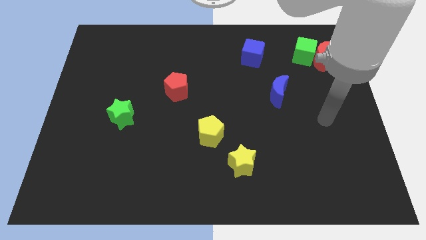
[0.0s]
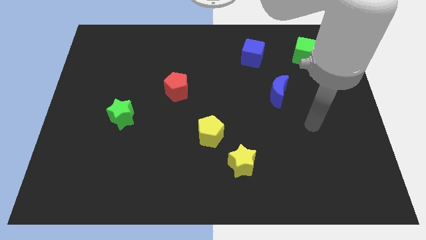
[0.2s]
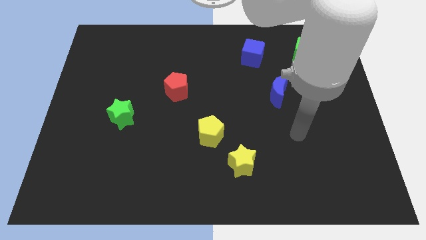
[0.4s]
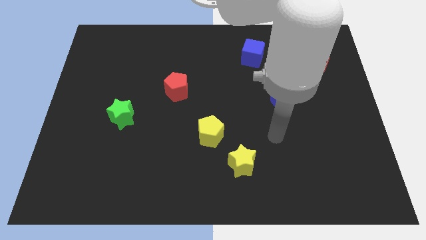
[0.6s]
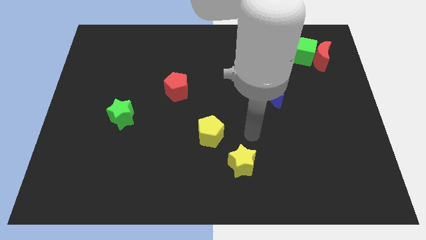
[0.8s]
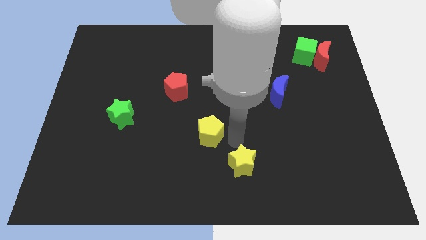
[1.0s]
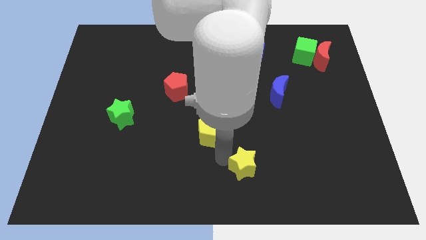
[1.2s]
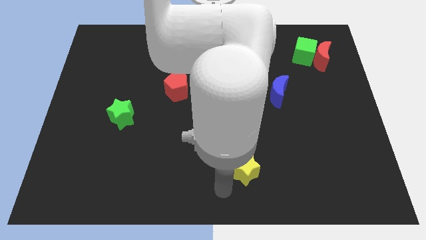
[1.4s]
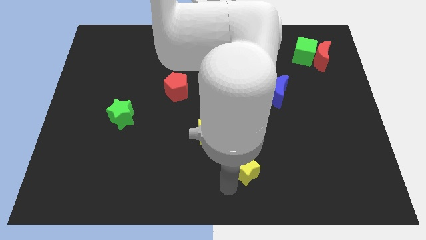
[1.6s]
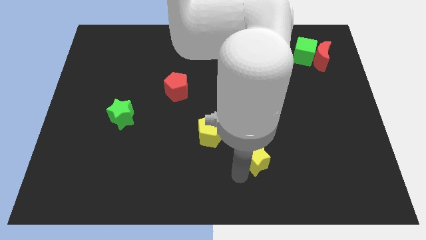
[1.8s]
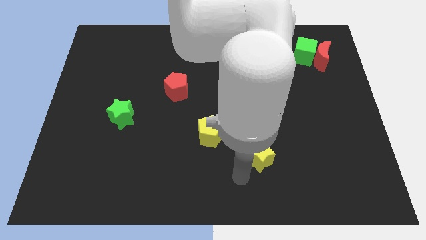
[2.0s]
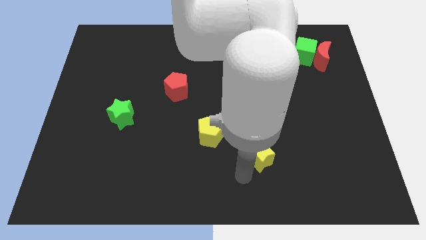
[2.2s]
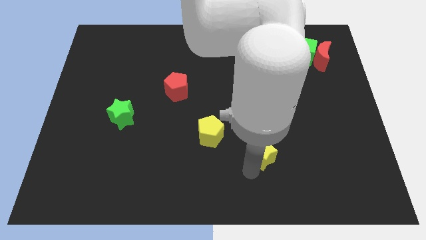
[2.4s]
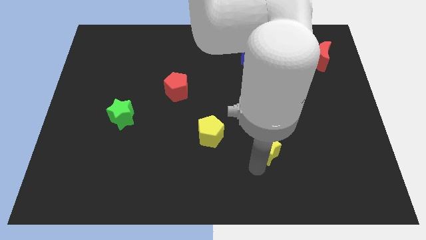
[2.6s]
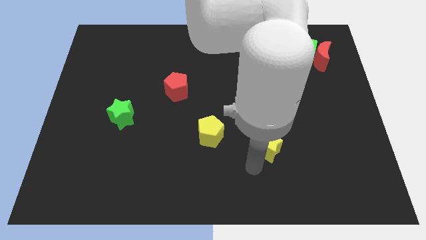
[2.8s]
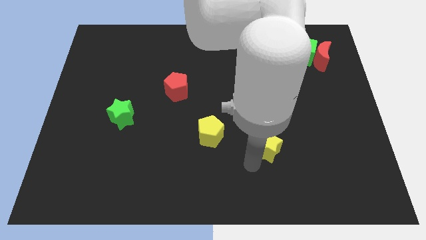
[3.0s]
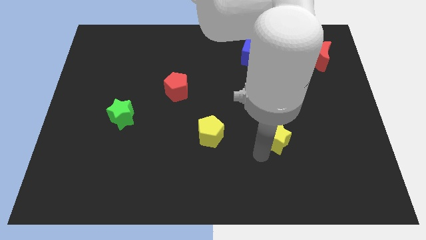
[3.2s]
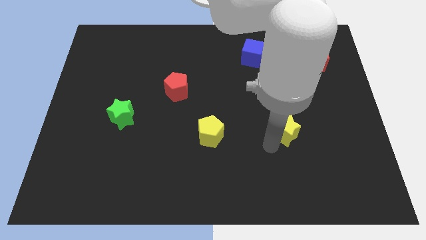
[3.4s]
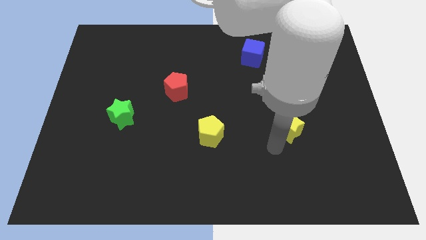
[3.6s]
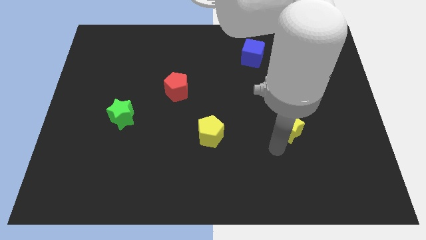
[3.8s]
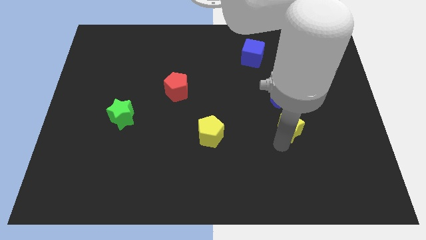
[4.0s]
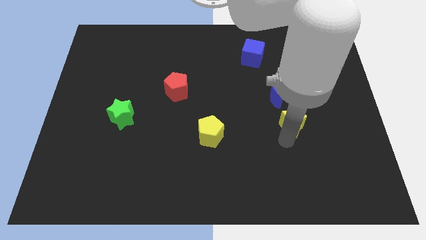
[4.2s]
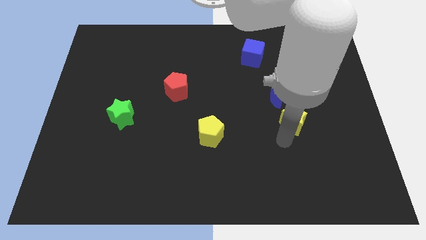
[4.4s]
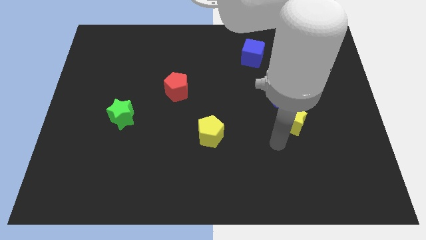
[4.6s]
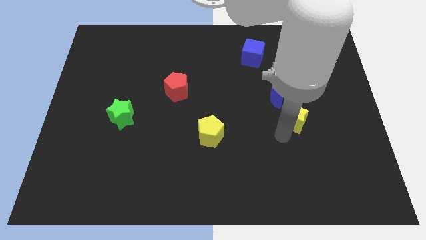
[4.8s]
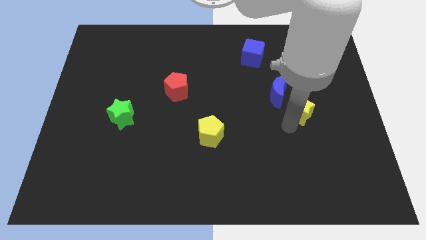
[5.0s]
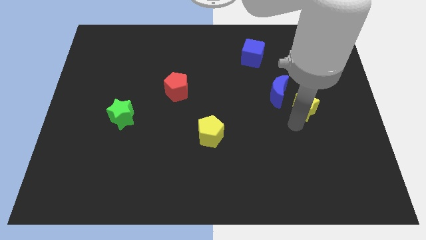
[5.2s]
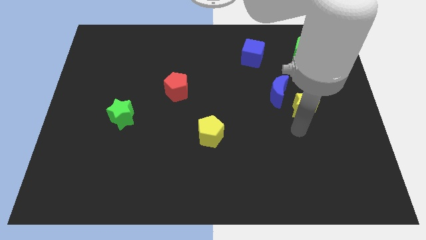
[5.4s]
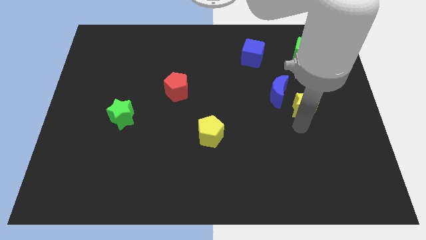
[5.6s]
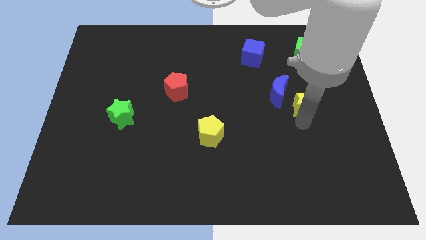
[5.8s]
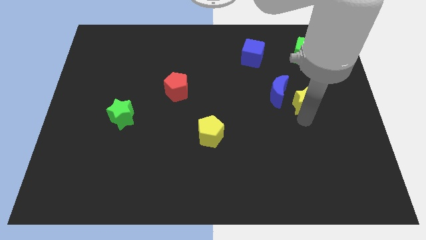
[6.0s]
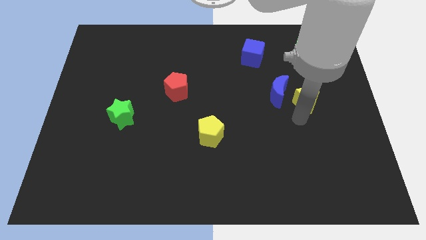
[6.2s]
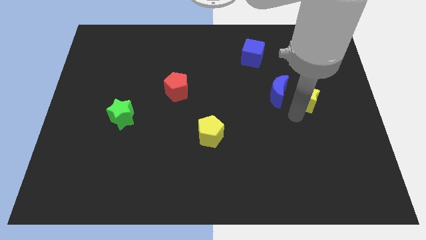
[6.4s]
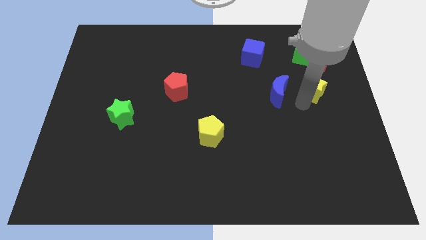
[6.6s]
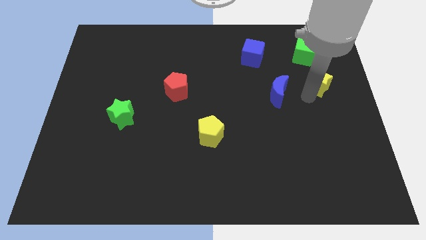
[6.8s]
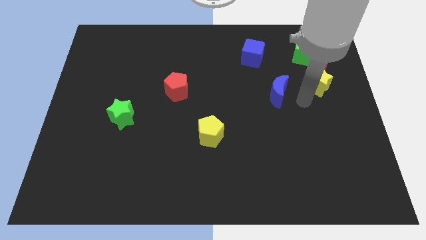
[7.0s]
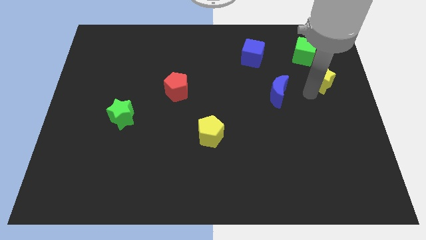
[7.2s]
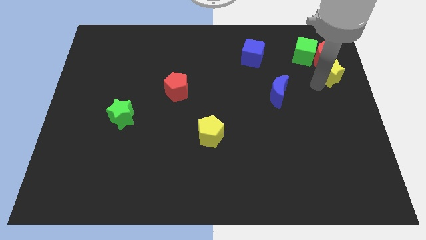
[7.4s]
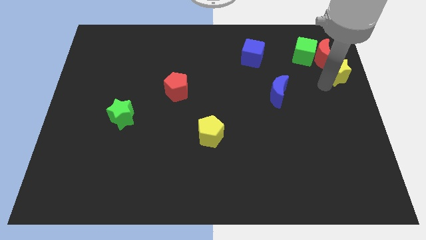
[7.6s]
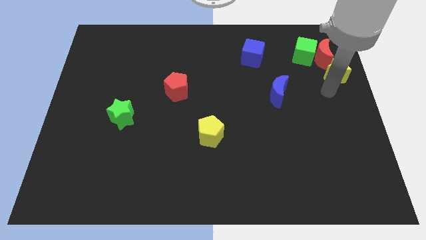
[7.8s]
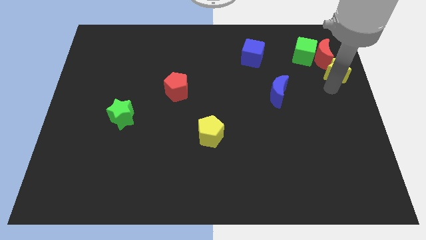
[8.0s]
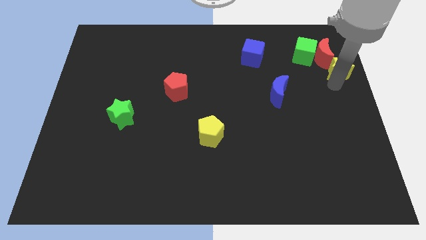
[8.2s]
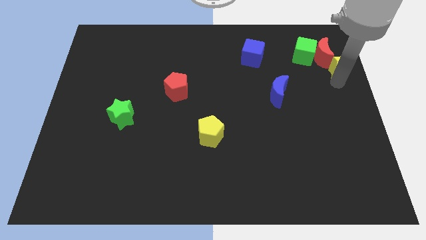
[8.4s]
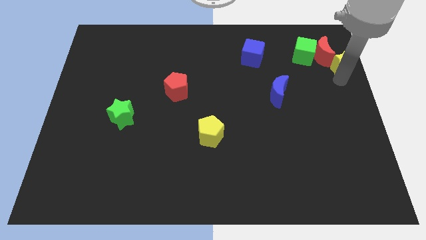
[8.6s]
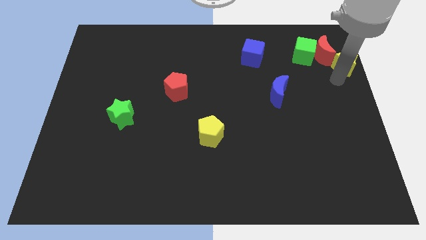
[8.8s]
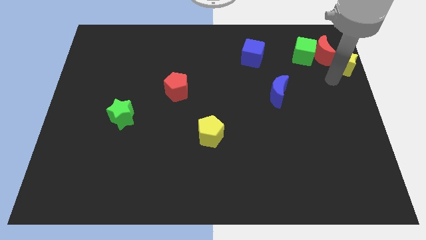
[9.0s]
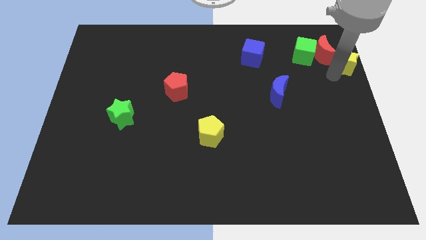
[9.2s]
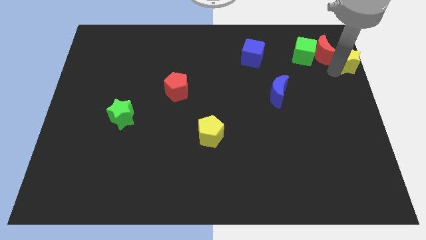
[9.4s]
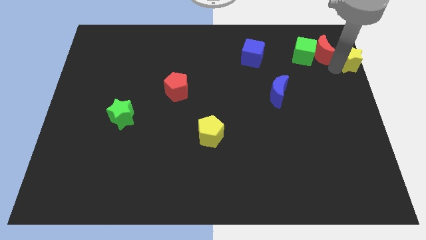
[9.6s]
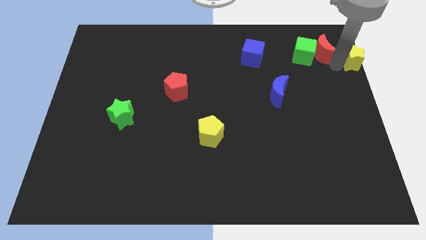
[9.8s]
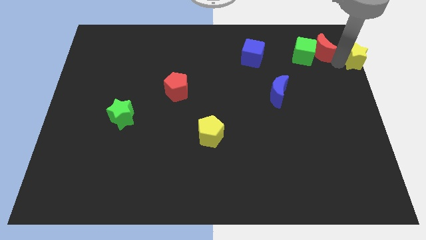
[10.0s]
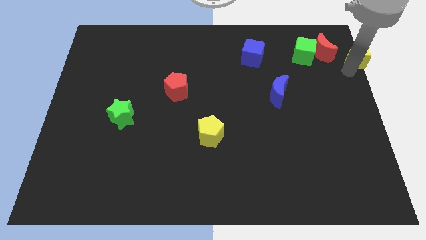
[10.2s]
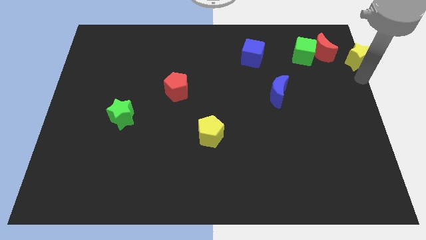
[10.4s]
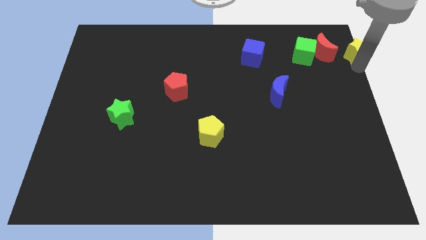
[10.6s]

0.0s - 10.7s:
push the yellow star to the top right of the board

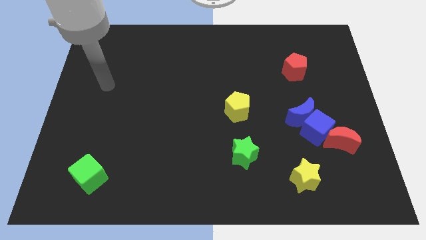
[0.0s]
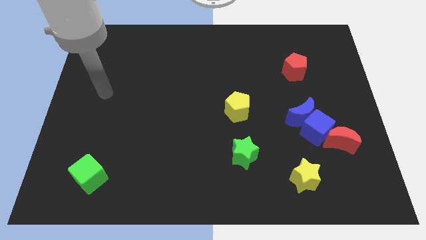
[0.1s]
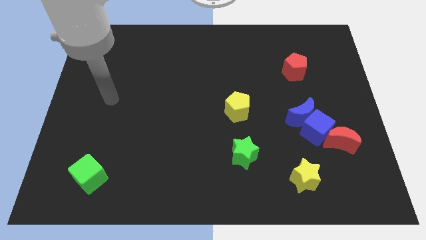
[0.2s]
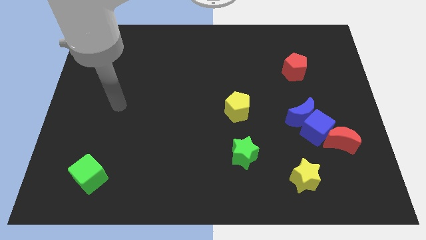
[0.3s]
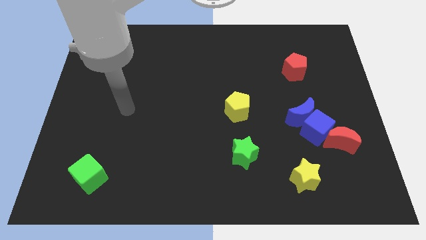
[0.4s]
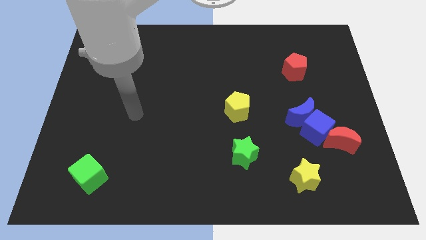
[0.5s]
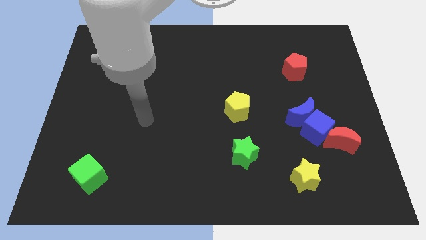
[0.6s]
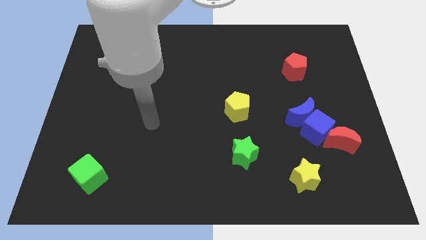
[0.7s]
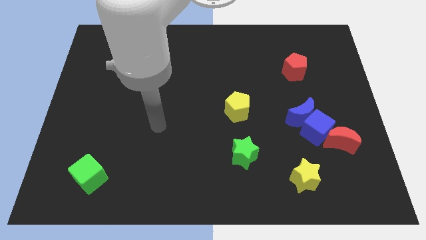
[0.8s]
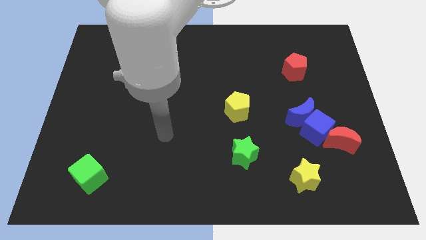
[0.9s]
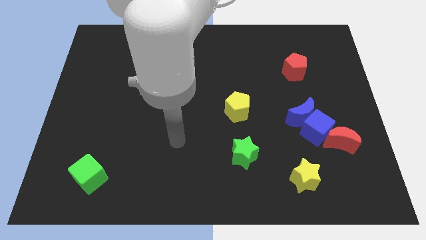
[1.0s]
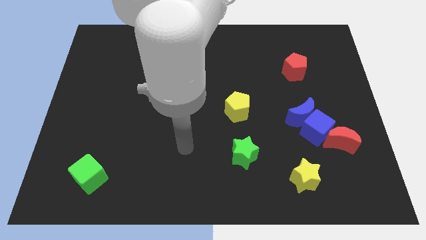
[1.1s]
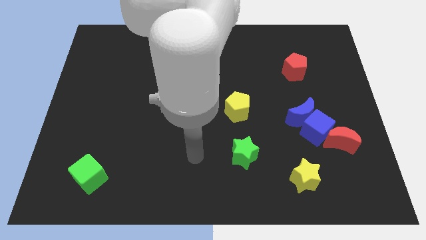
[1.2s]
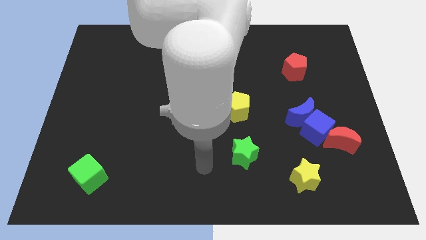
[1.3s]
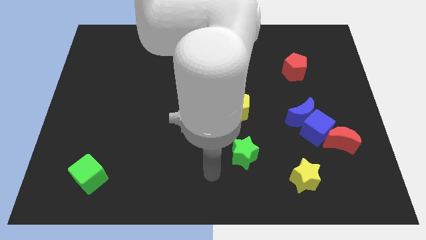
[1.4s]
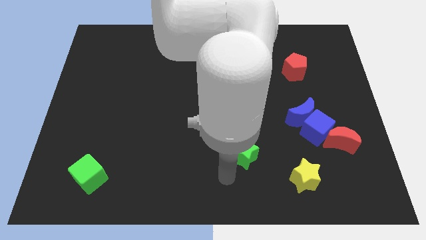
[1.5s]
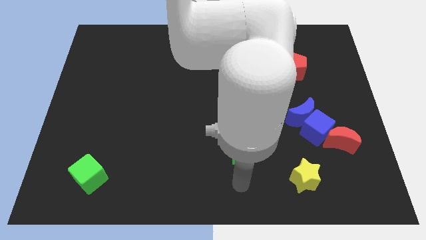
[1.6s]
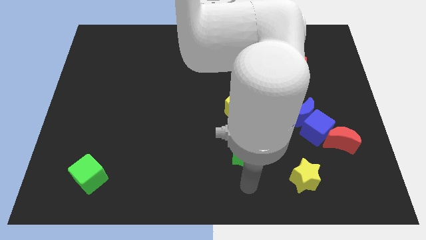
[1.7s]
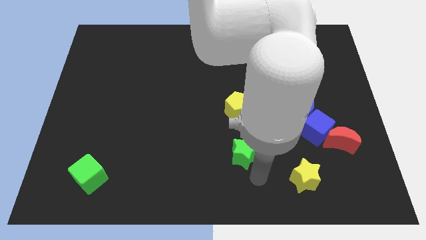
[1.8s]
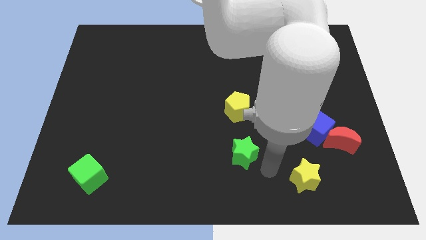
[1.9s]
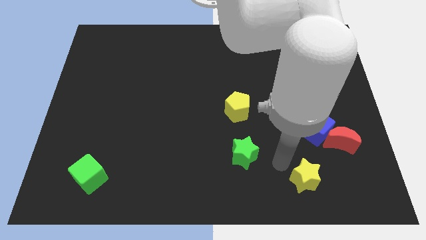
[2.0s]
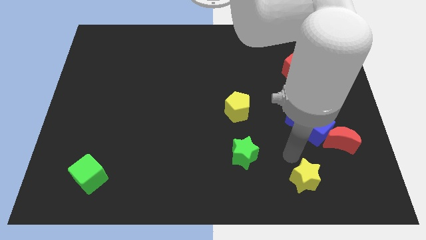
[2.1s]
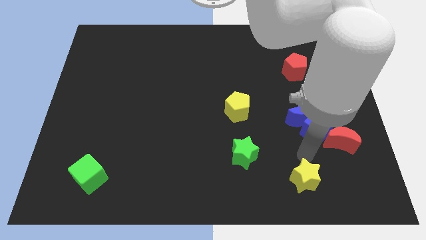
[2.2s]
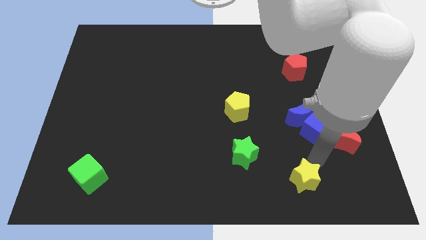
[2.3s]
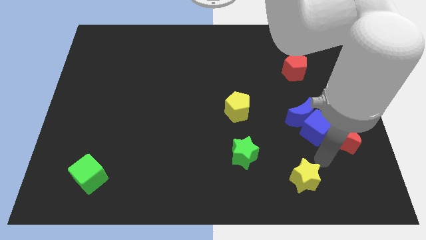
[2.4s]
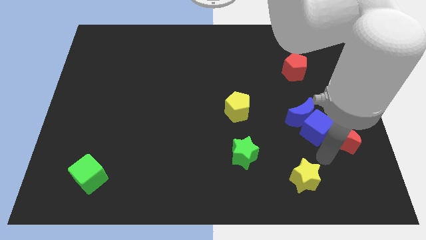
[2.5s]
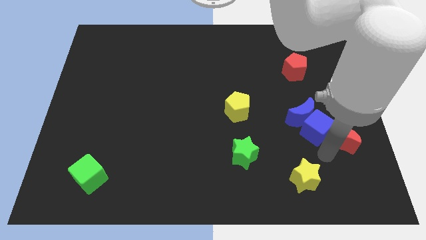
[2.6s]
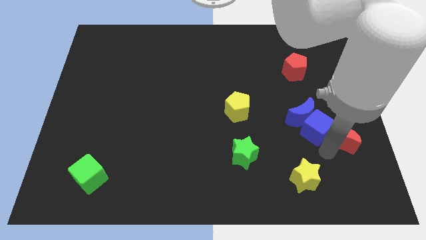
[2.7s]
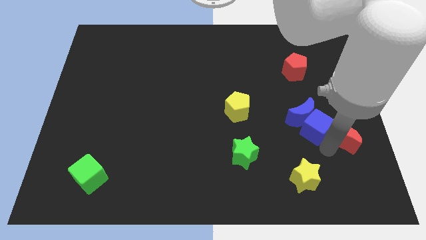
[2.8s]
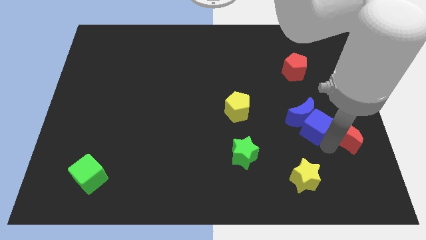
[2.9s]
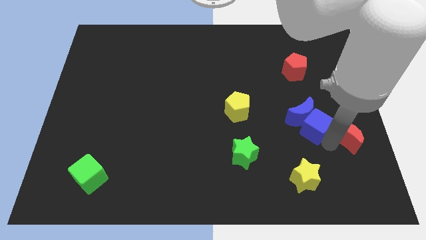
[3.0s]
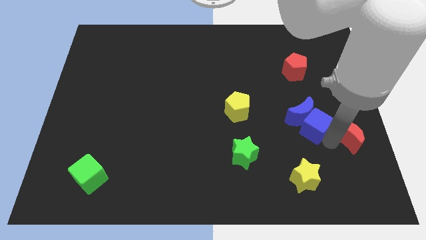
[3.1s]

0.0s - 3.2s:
push the red moon to the center right
